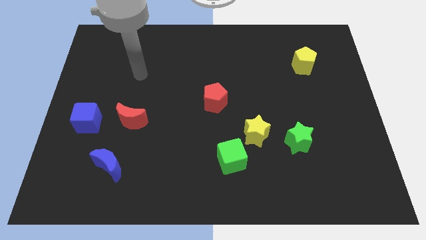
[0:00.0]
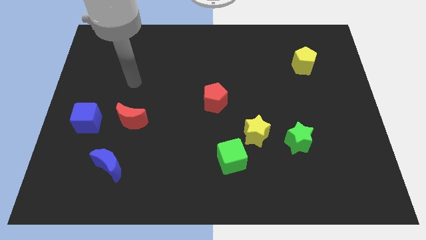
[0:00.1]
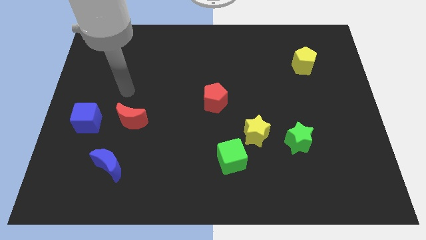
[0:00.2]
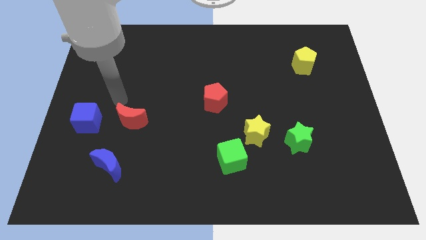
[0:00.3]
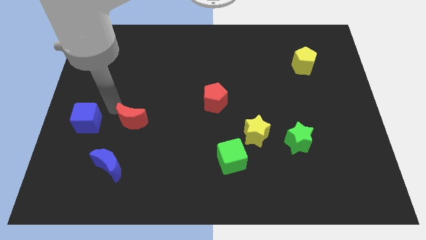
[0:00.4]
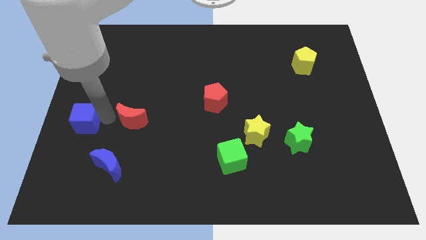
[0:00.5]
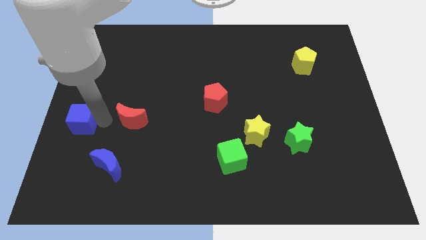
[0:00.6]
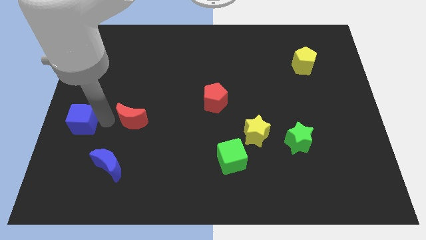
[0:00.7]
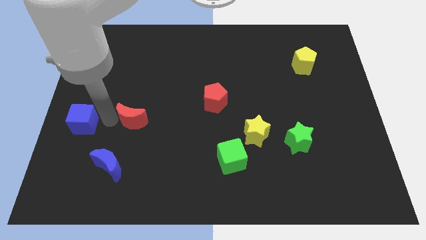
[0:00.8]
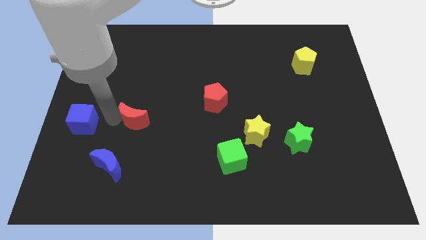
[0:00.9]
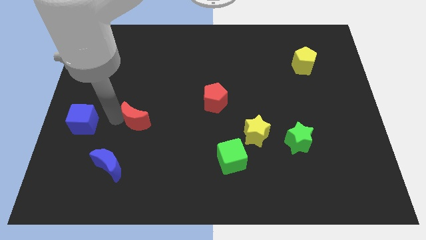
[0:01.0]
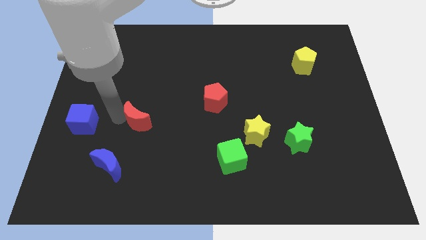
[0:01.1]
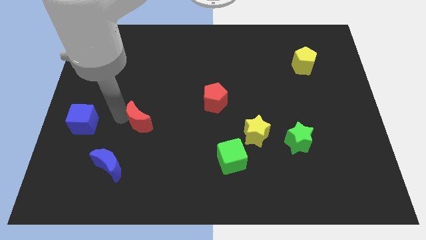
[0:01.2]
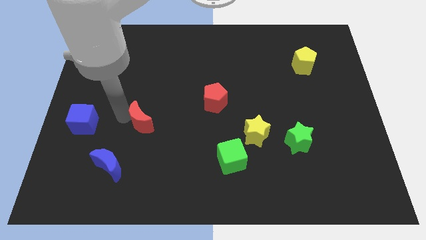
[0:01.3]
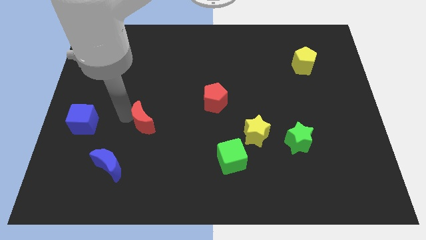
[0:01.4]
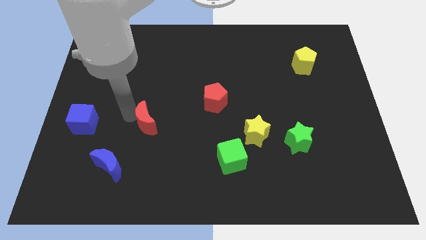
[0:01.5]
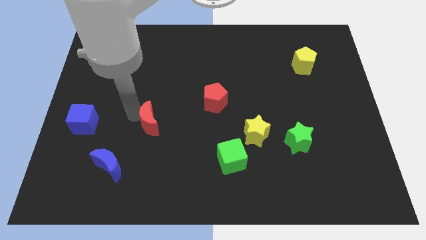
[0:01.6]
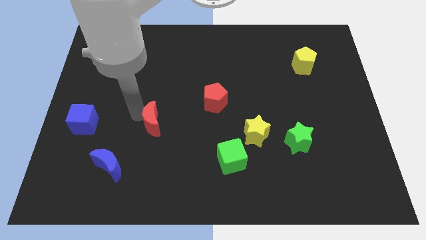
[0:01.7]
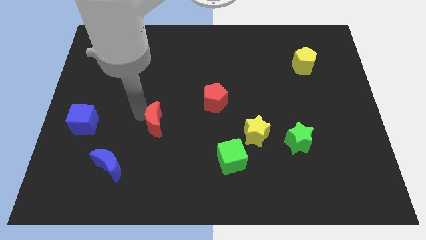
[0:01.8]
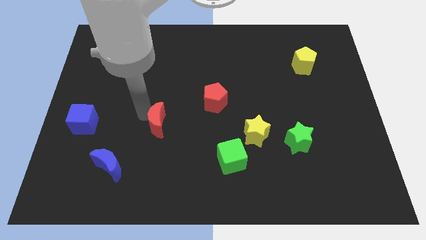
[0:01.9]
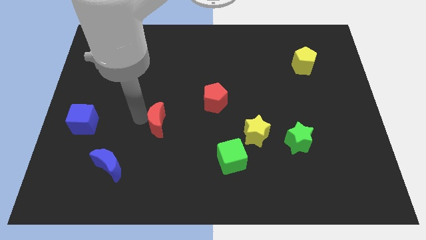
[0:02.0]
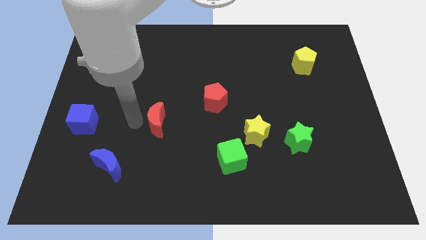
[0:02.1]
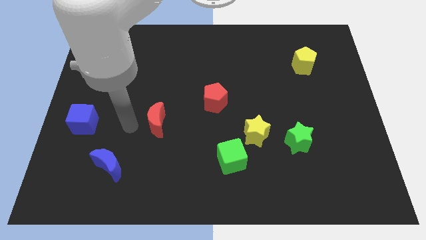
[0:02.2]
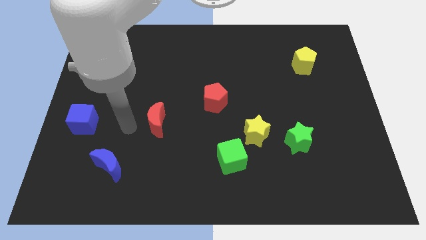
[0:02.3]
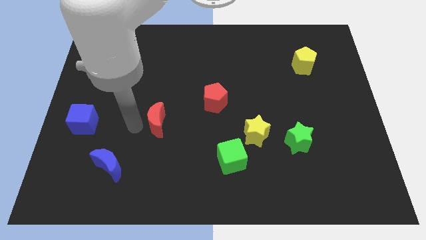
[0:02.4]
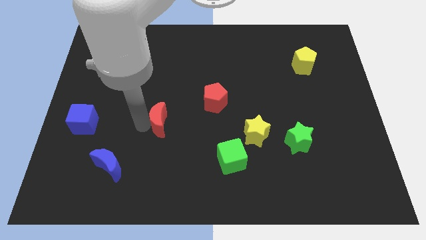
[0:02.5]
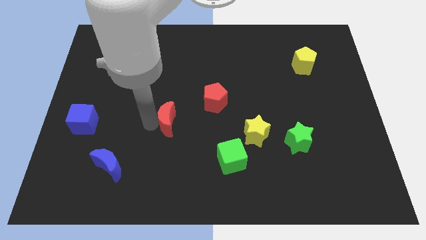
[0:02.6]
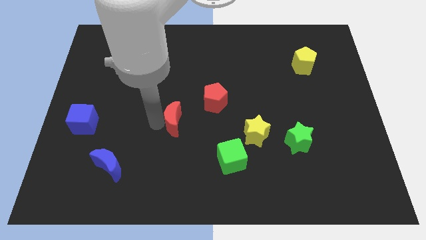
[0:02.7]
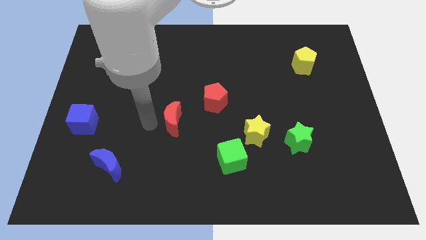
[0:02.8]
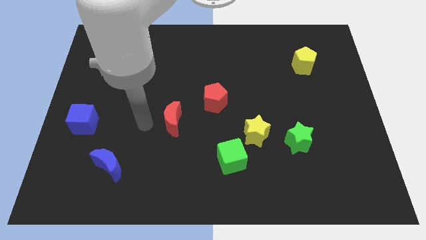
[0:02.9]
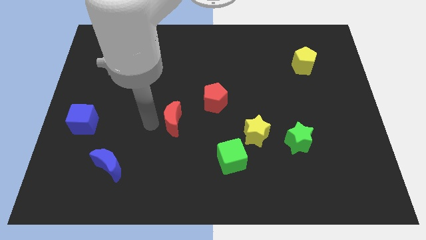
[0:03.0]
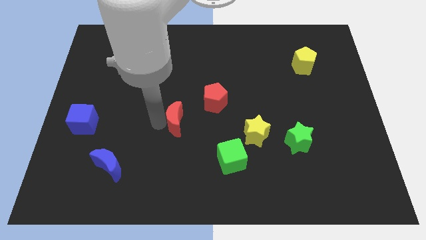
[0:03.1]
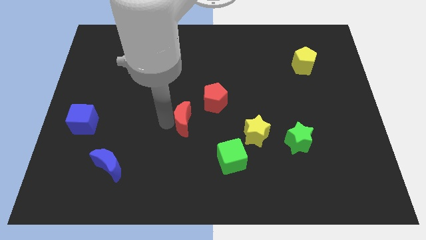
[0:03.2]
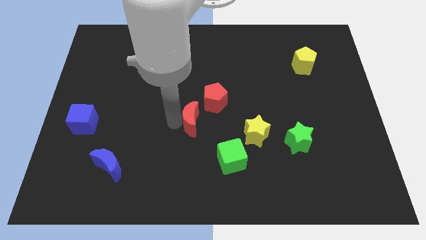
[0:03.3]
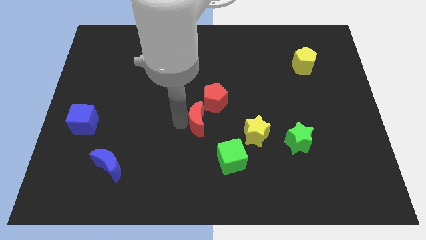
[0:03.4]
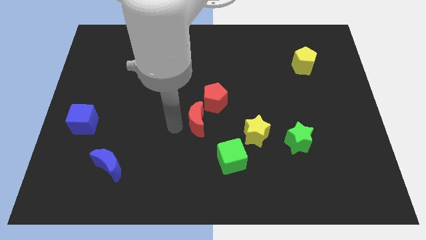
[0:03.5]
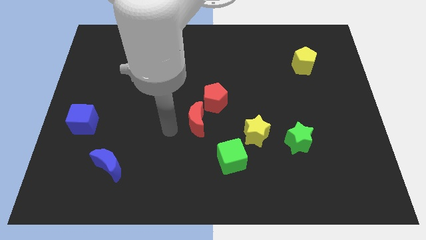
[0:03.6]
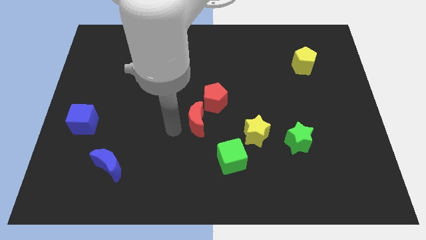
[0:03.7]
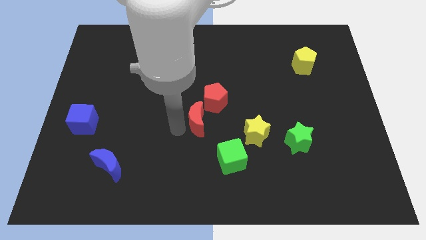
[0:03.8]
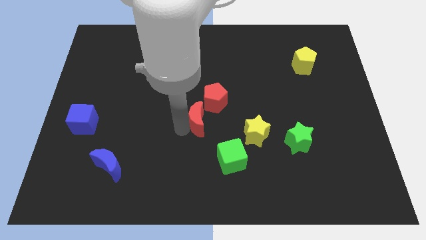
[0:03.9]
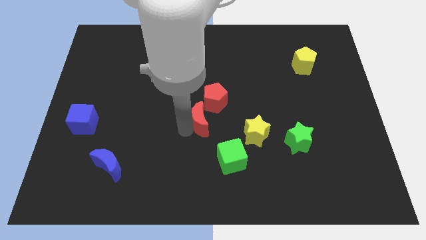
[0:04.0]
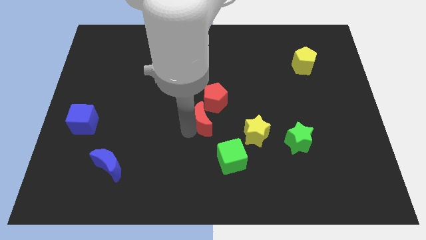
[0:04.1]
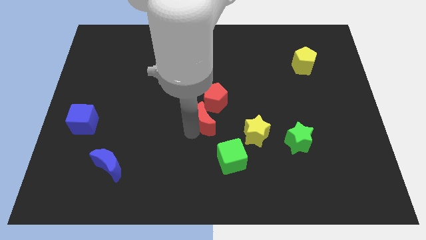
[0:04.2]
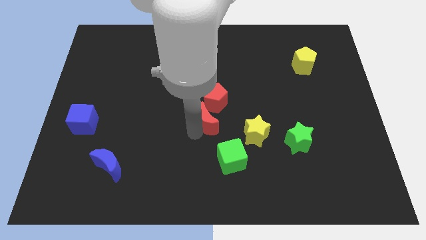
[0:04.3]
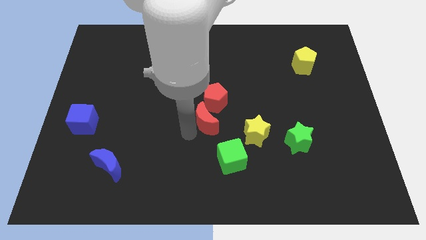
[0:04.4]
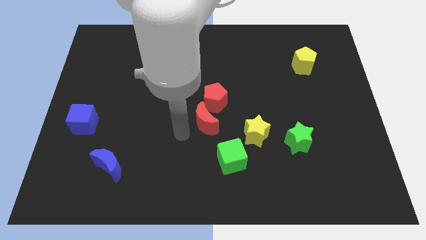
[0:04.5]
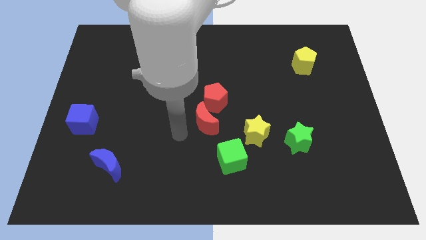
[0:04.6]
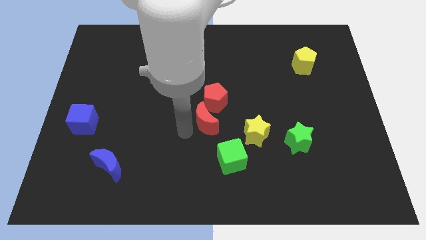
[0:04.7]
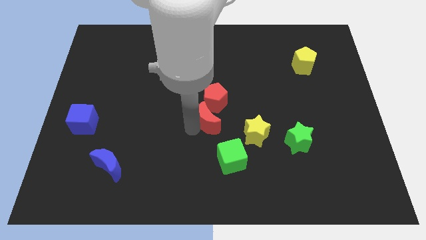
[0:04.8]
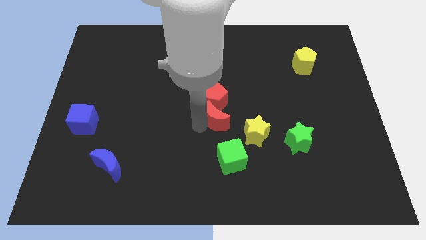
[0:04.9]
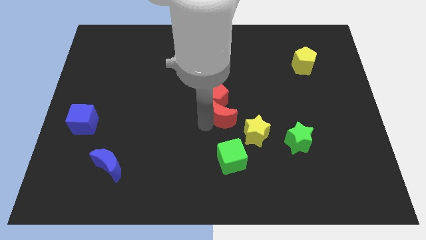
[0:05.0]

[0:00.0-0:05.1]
move the red moon to the right

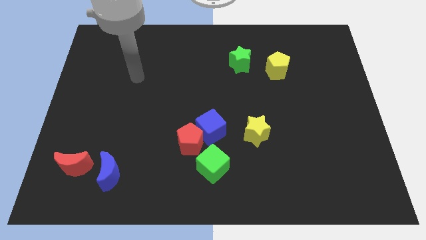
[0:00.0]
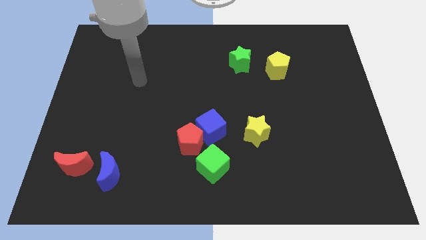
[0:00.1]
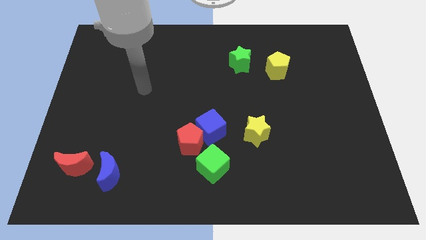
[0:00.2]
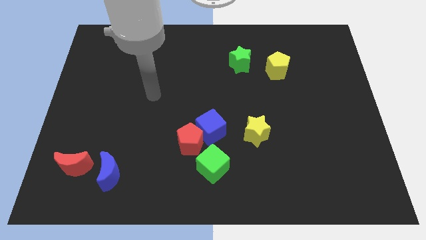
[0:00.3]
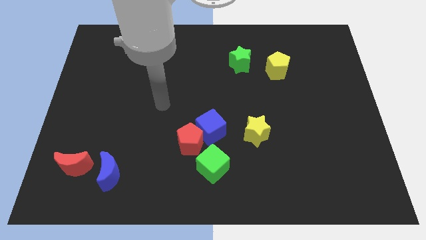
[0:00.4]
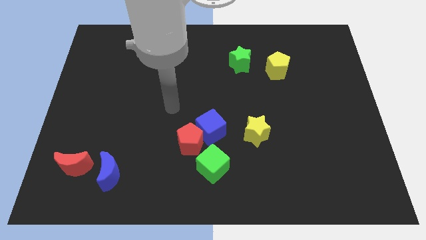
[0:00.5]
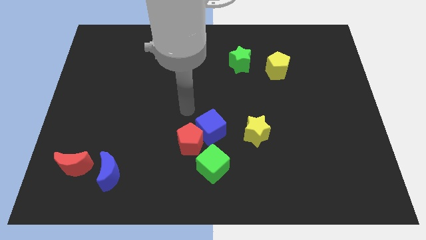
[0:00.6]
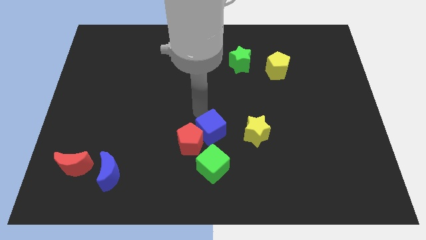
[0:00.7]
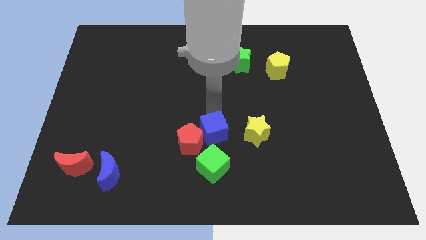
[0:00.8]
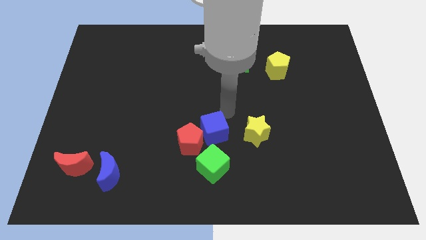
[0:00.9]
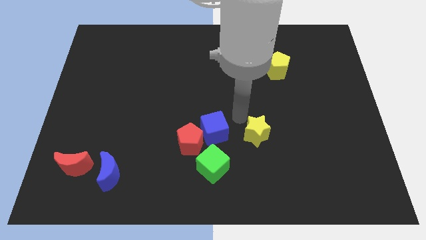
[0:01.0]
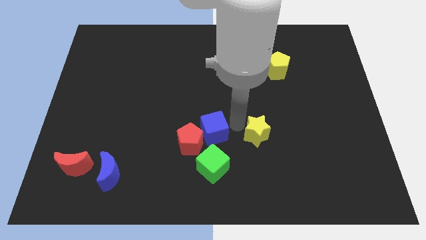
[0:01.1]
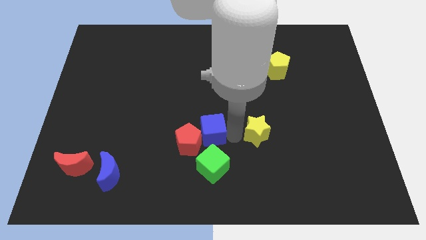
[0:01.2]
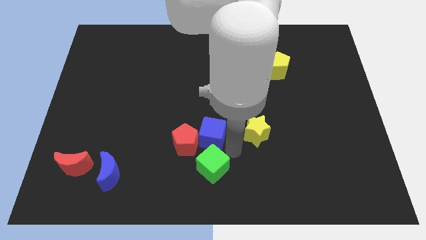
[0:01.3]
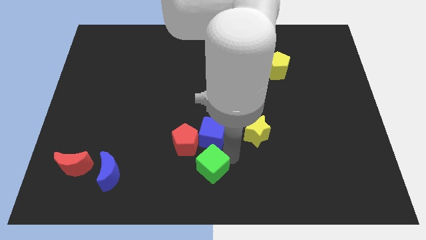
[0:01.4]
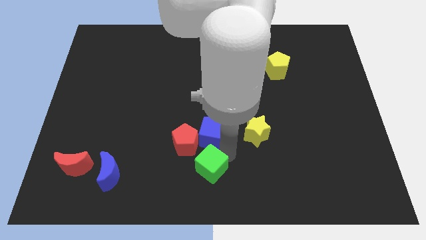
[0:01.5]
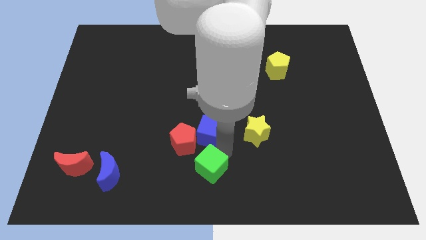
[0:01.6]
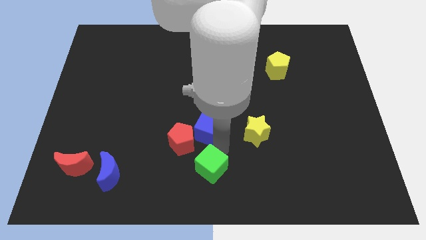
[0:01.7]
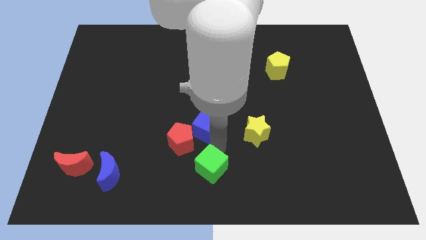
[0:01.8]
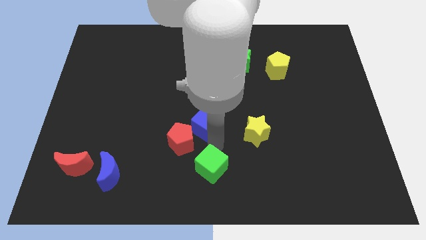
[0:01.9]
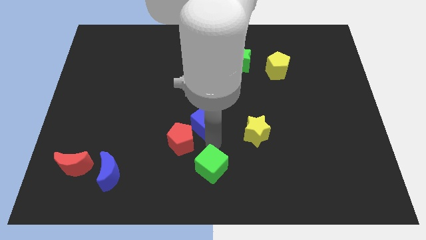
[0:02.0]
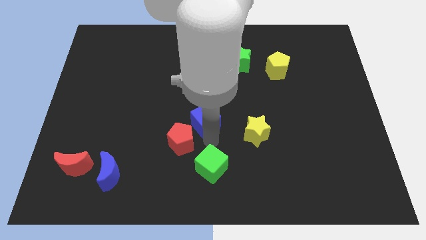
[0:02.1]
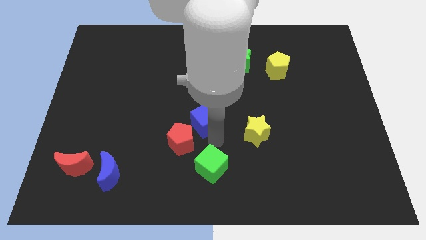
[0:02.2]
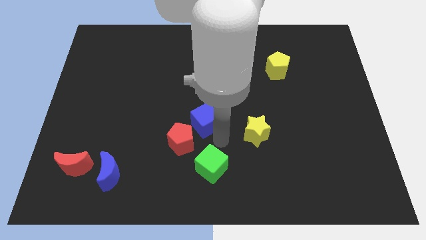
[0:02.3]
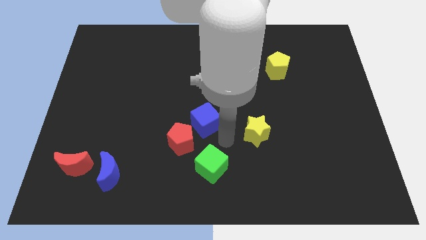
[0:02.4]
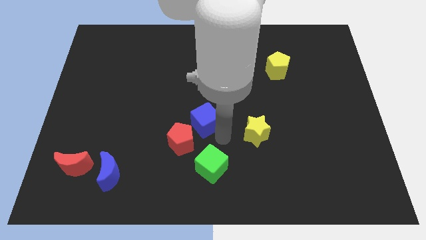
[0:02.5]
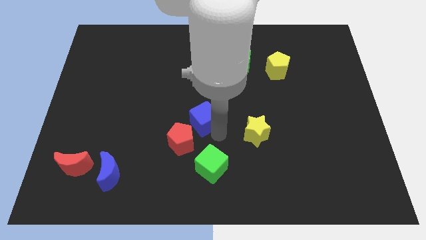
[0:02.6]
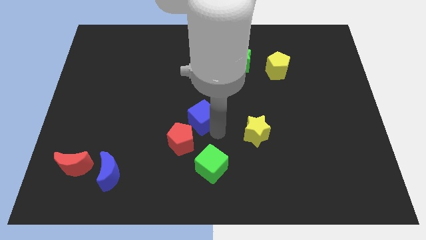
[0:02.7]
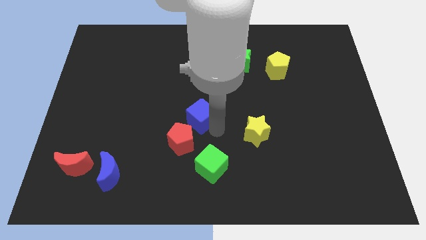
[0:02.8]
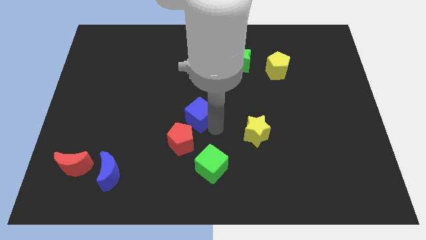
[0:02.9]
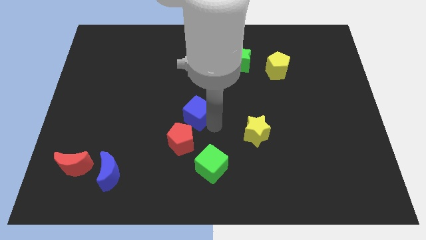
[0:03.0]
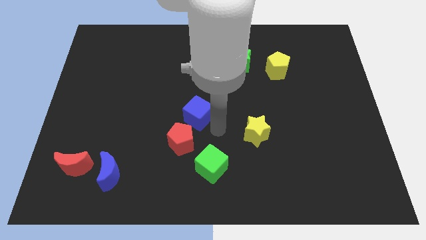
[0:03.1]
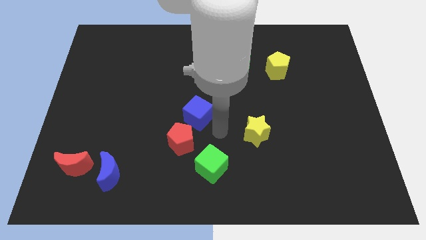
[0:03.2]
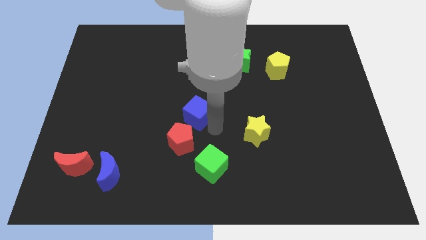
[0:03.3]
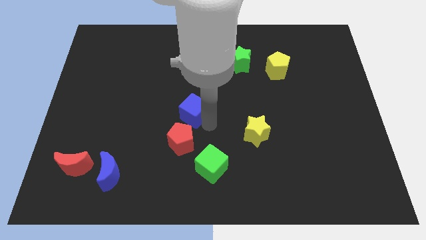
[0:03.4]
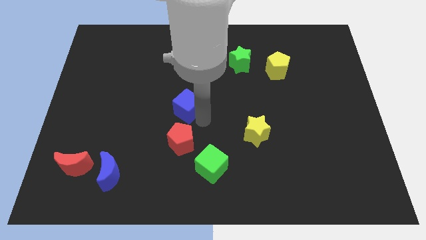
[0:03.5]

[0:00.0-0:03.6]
push the blue cube a little bit upwards and to the left
